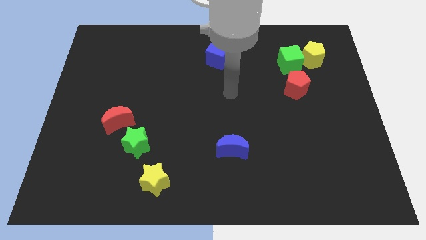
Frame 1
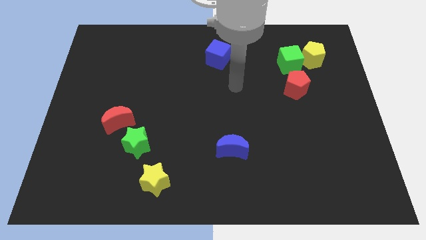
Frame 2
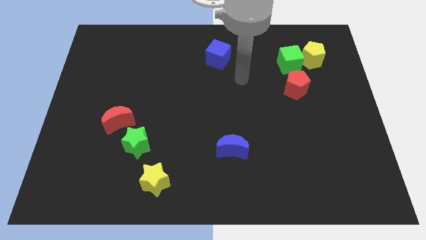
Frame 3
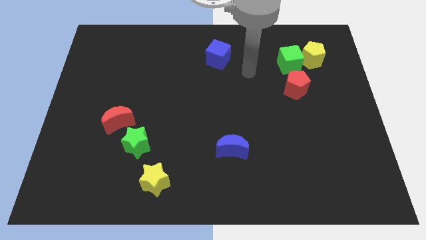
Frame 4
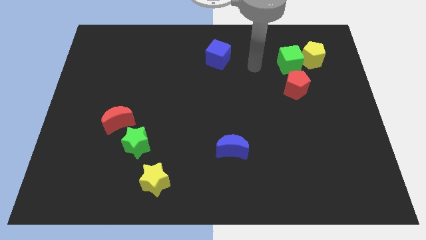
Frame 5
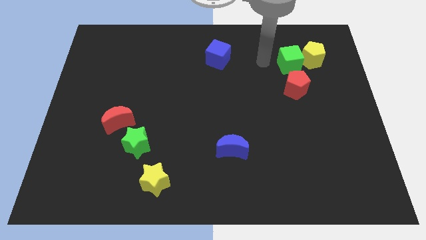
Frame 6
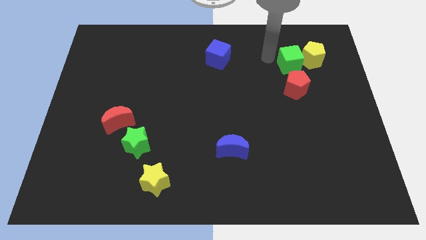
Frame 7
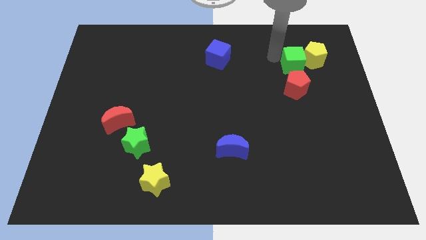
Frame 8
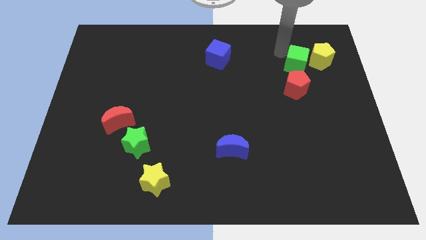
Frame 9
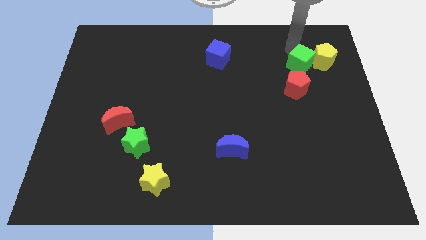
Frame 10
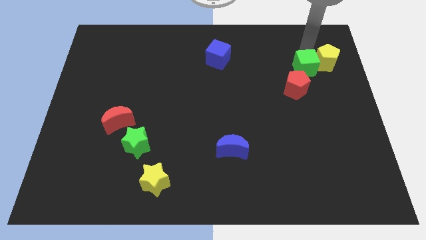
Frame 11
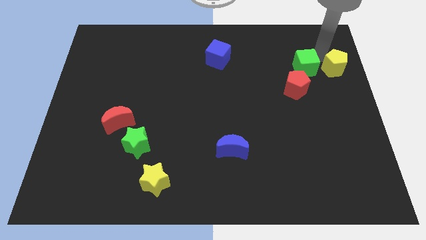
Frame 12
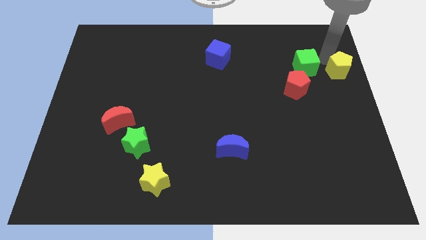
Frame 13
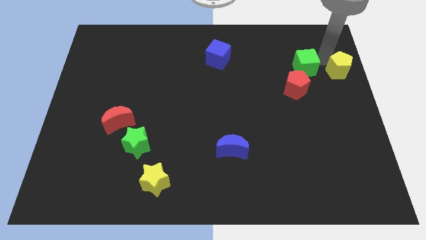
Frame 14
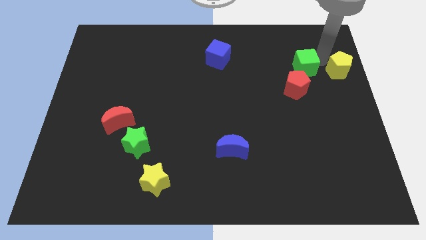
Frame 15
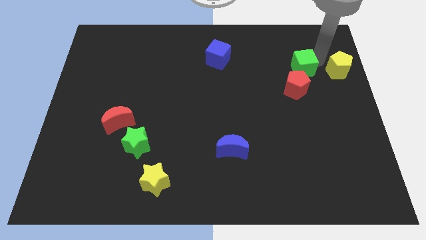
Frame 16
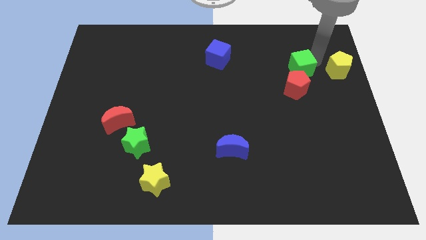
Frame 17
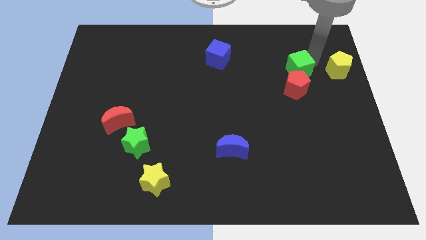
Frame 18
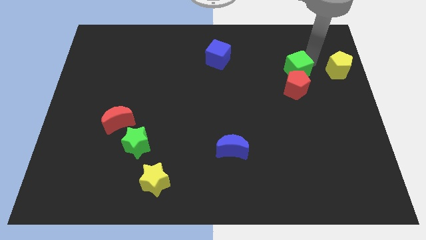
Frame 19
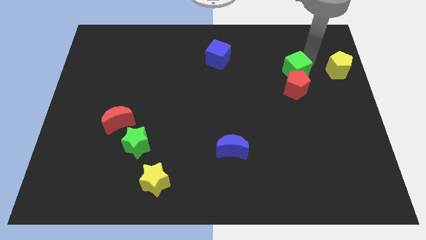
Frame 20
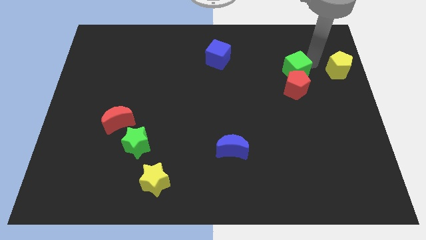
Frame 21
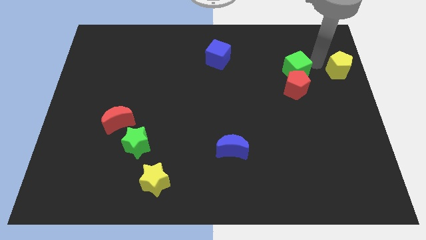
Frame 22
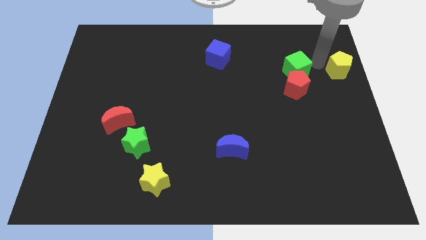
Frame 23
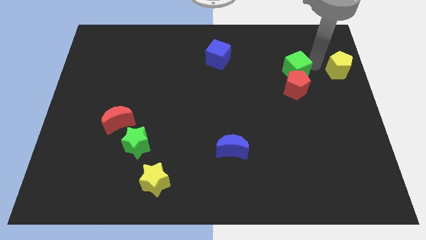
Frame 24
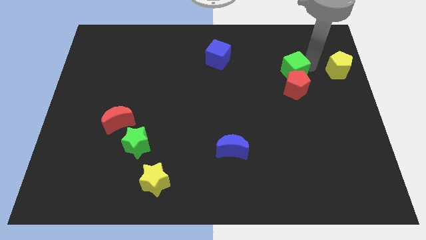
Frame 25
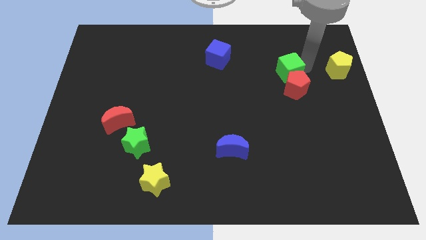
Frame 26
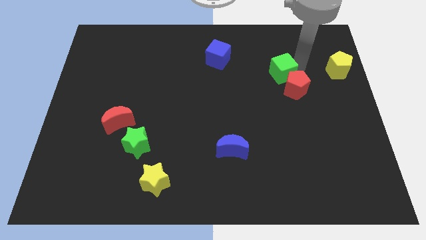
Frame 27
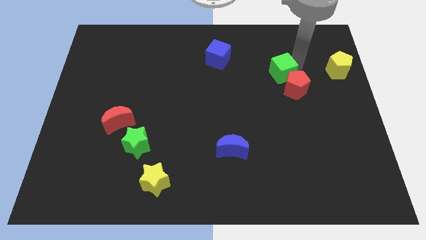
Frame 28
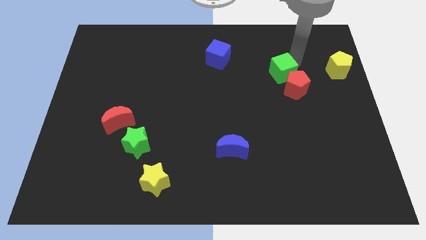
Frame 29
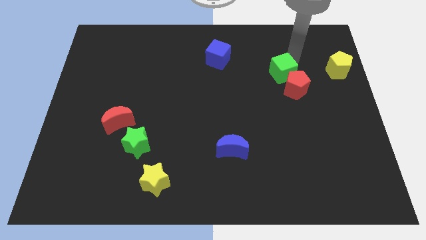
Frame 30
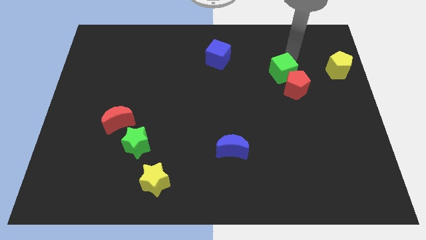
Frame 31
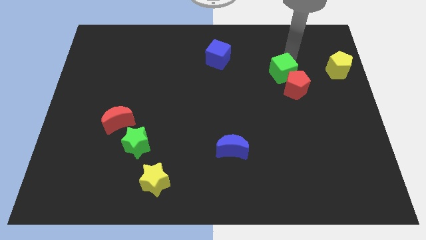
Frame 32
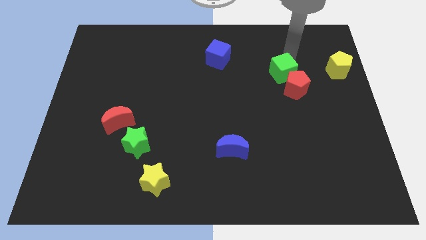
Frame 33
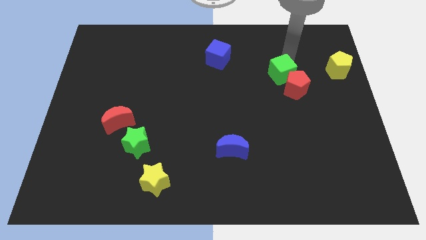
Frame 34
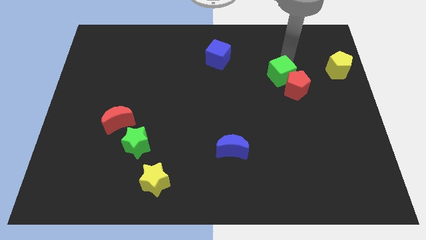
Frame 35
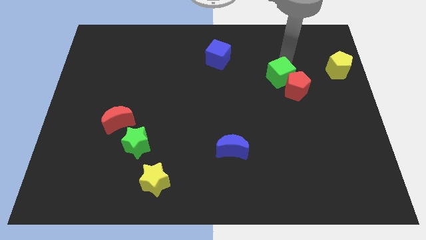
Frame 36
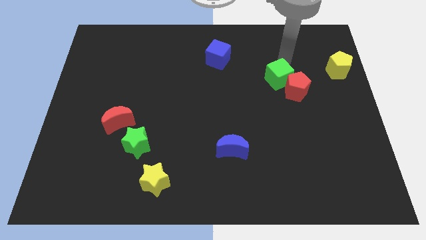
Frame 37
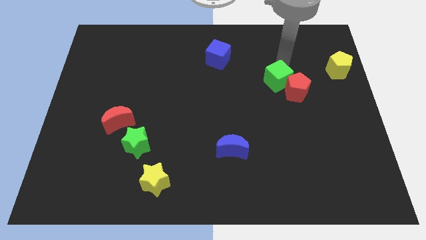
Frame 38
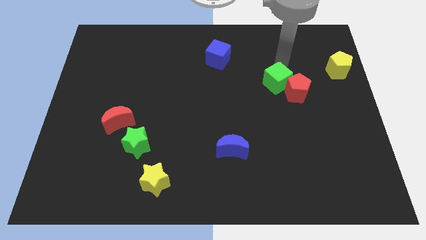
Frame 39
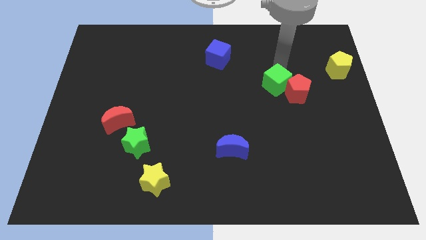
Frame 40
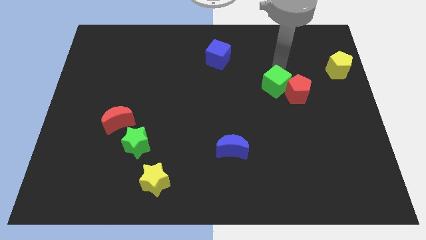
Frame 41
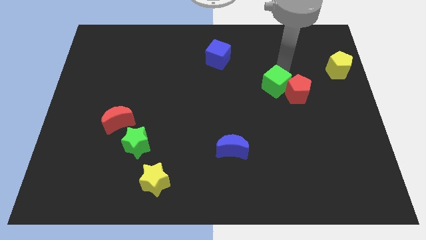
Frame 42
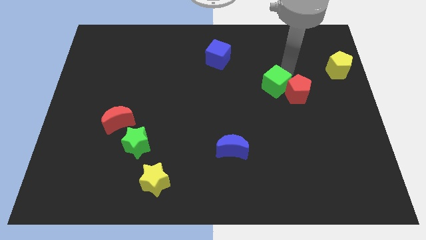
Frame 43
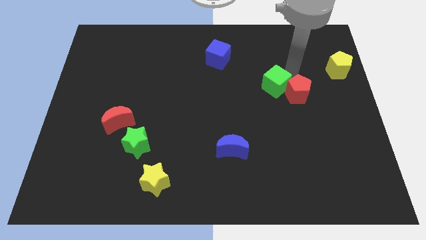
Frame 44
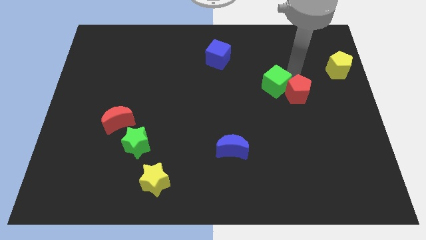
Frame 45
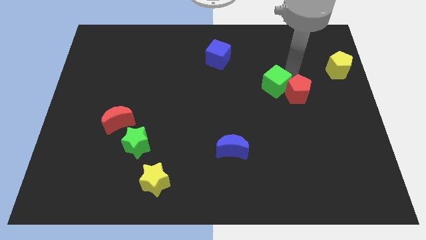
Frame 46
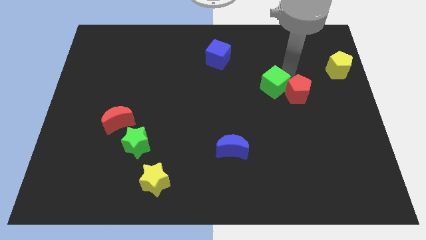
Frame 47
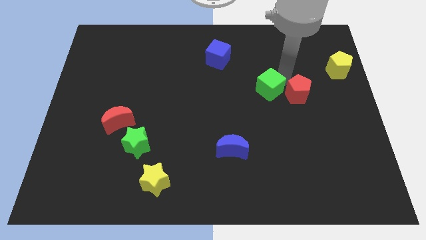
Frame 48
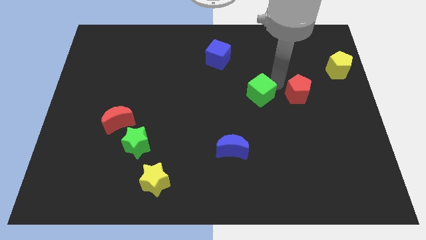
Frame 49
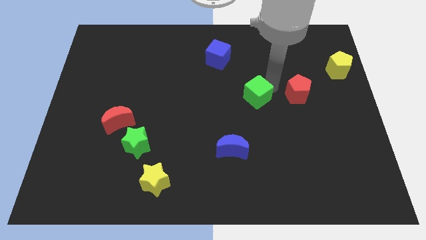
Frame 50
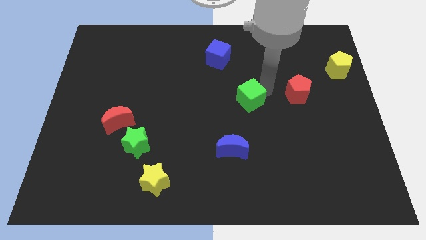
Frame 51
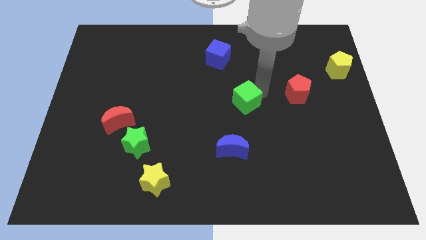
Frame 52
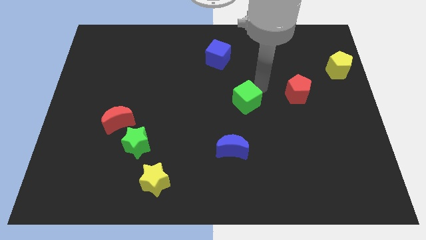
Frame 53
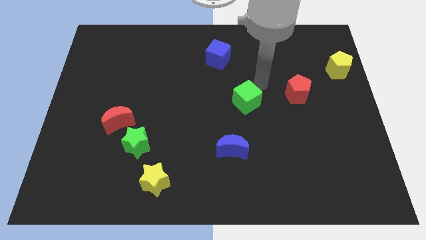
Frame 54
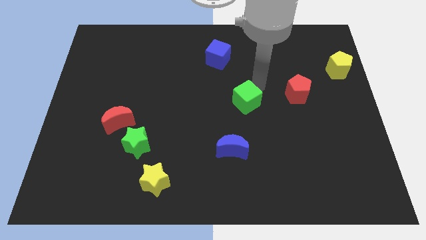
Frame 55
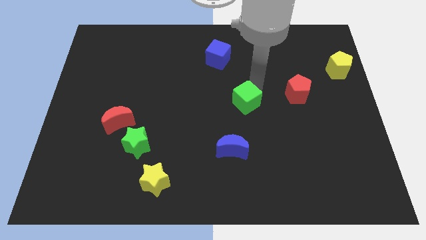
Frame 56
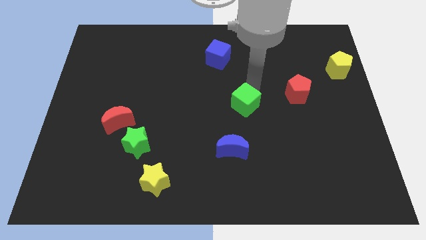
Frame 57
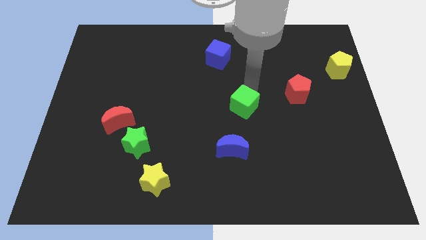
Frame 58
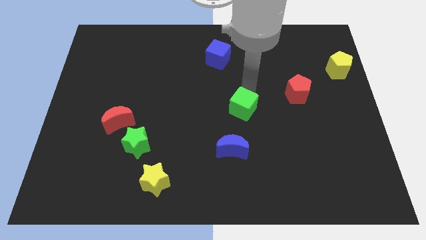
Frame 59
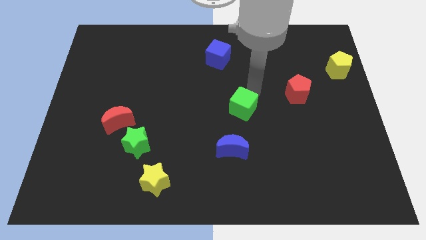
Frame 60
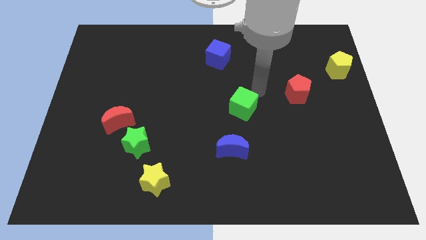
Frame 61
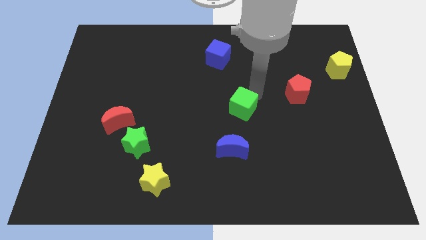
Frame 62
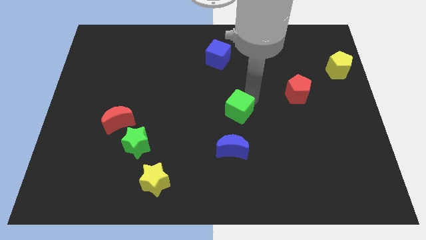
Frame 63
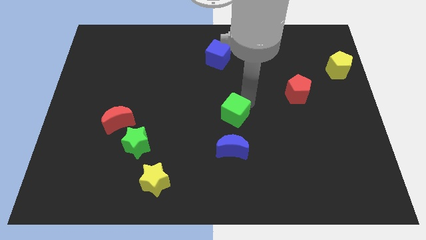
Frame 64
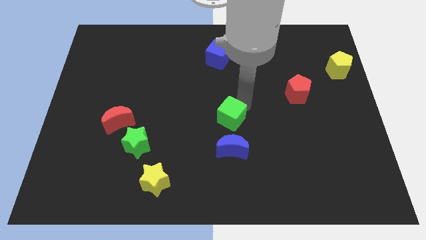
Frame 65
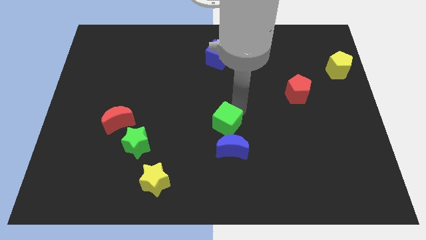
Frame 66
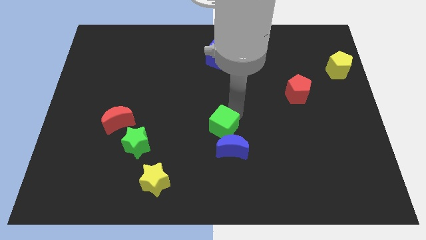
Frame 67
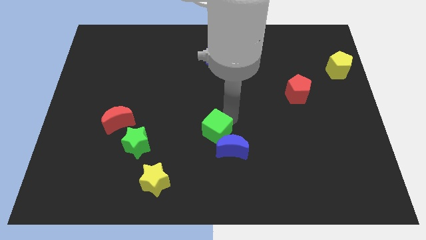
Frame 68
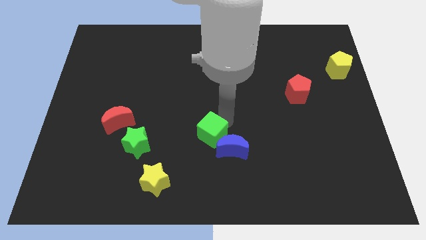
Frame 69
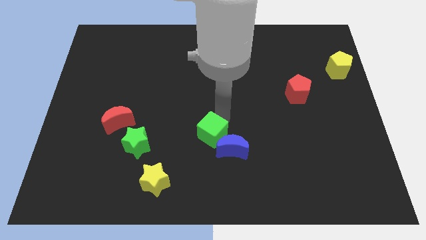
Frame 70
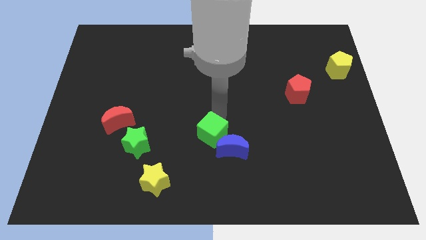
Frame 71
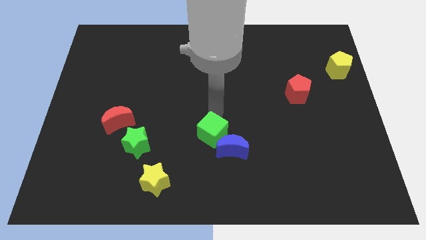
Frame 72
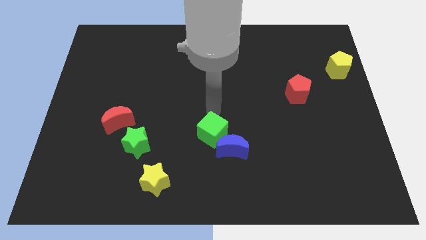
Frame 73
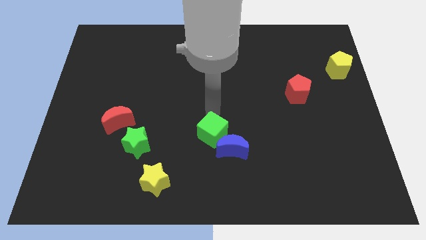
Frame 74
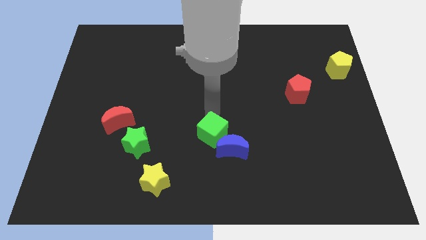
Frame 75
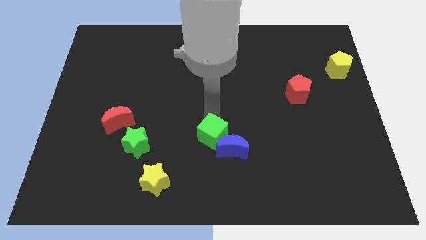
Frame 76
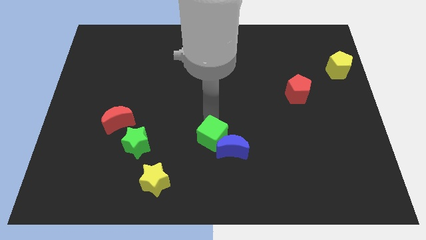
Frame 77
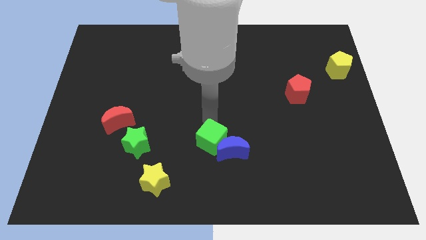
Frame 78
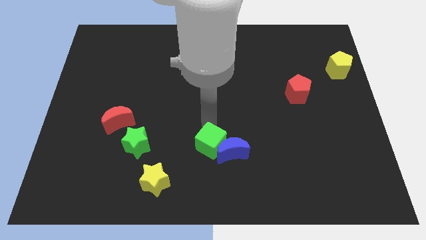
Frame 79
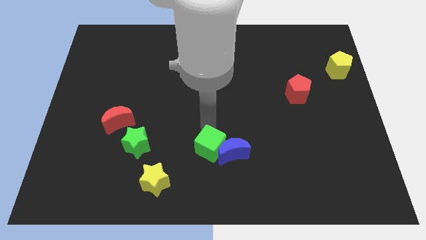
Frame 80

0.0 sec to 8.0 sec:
push the green cube to the bottom left of the blue moon
